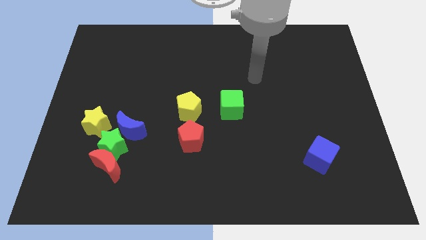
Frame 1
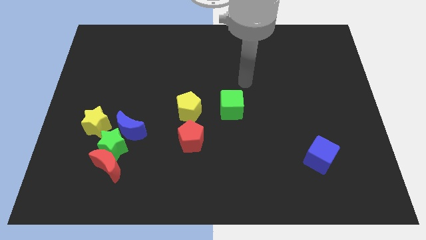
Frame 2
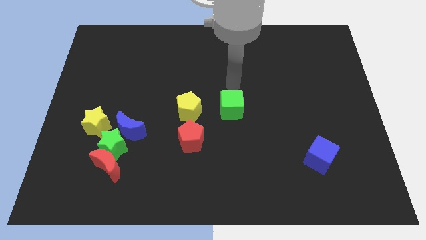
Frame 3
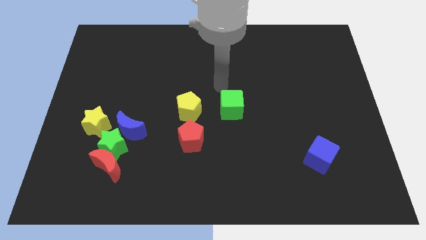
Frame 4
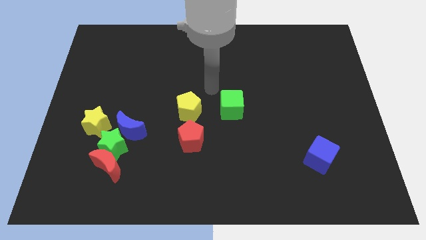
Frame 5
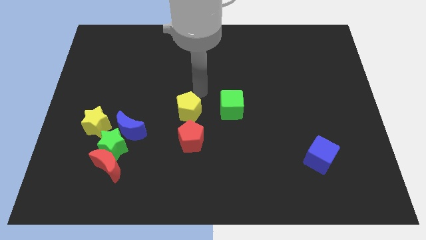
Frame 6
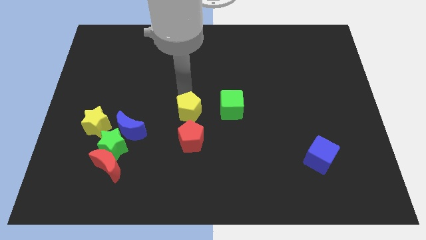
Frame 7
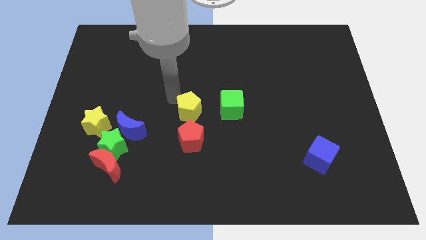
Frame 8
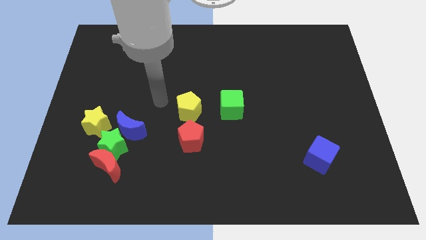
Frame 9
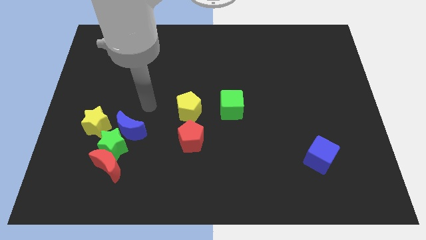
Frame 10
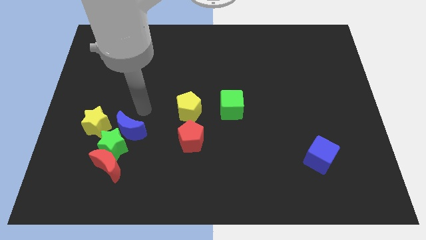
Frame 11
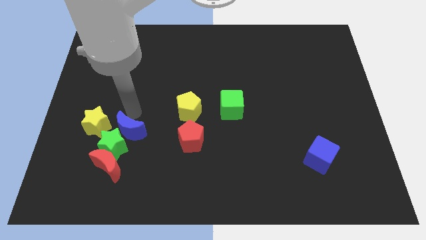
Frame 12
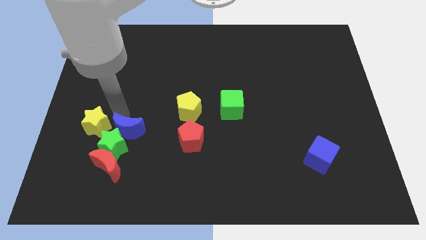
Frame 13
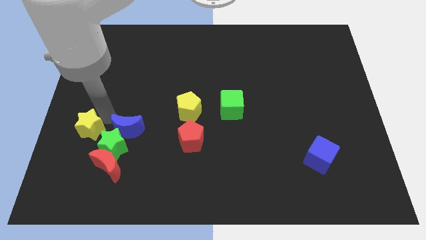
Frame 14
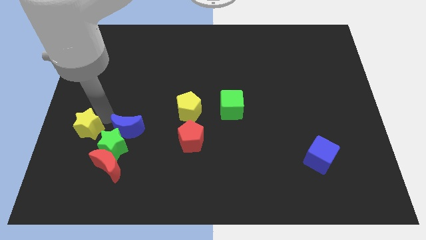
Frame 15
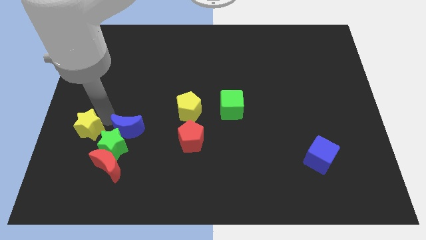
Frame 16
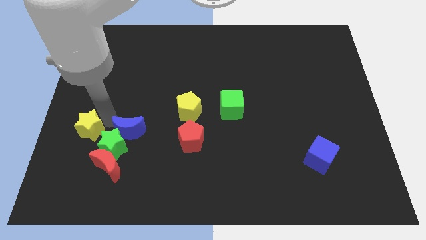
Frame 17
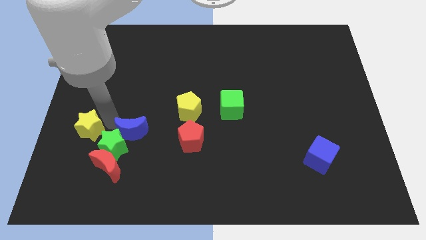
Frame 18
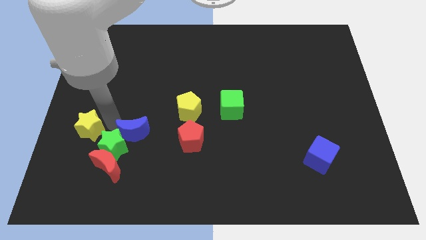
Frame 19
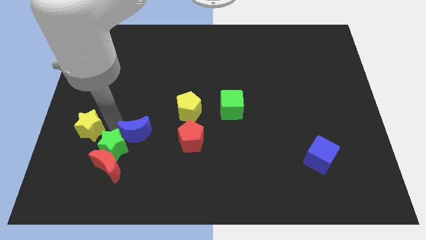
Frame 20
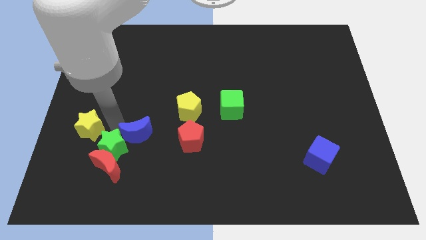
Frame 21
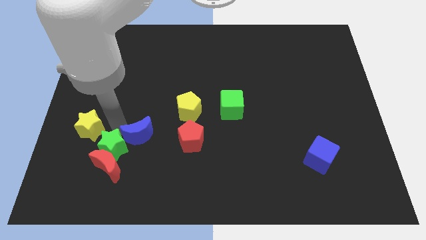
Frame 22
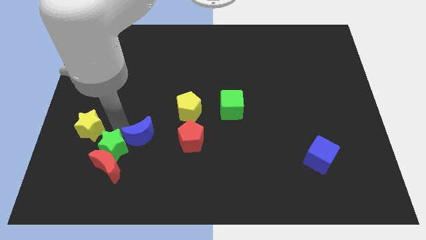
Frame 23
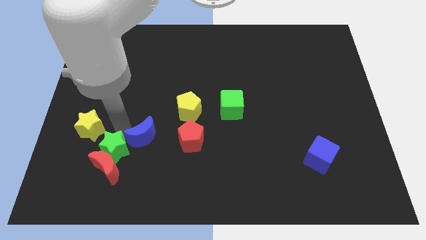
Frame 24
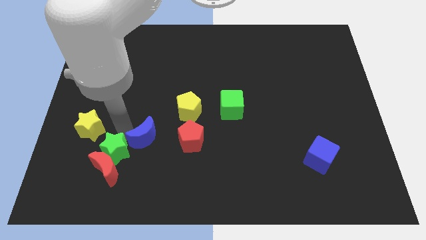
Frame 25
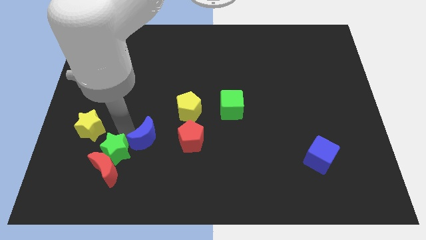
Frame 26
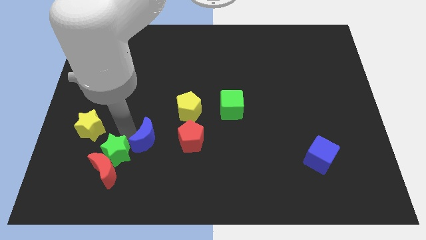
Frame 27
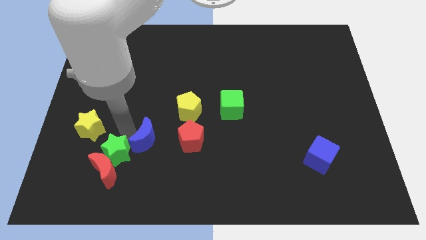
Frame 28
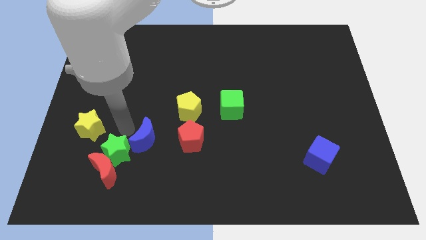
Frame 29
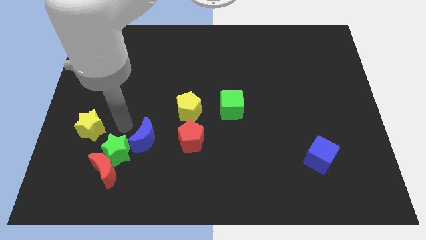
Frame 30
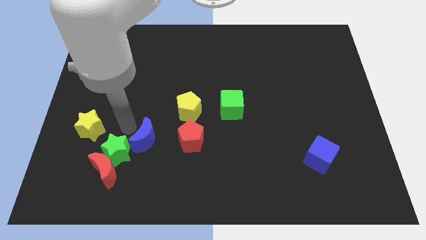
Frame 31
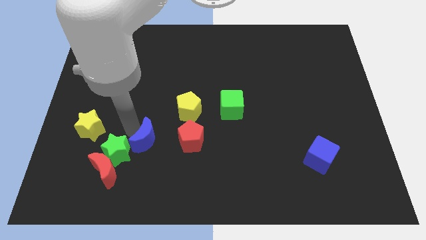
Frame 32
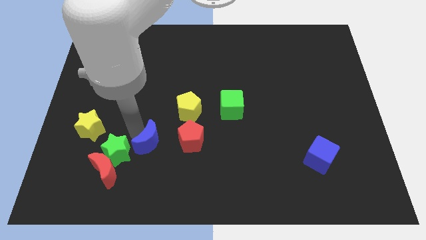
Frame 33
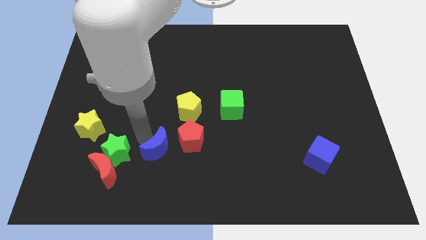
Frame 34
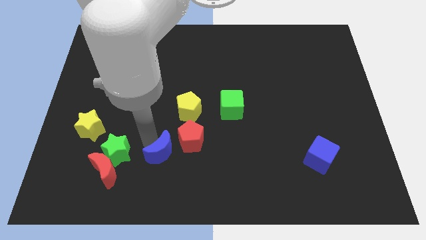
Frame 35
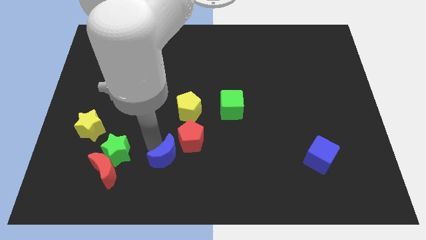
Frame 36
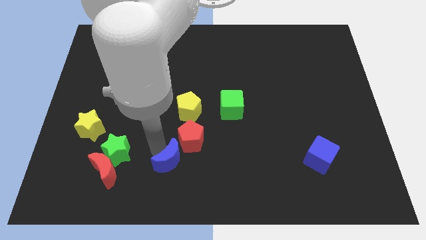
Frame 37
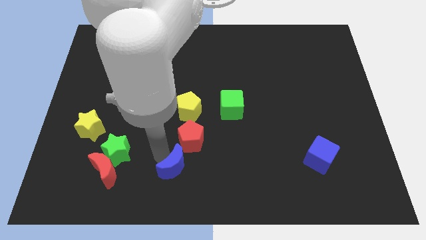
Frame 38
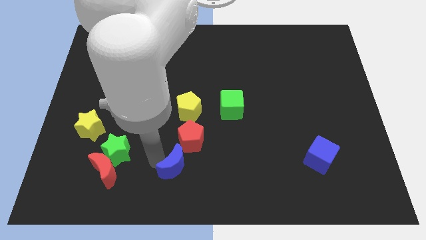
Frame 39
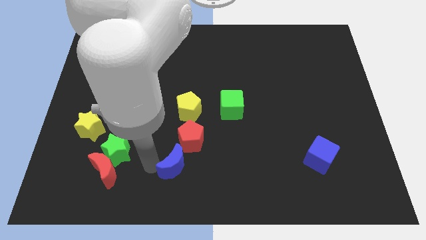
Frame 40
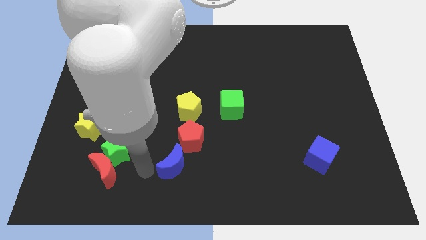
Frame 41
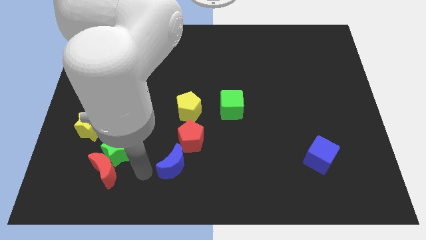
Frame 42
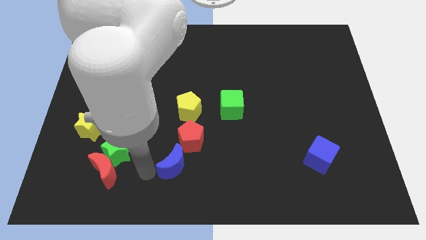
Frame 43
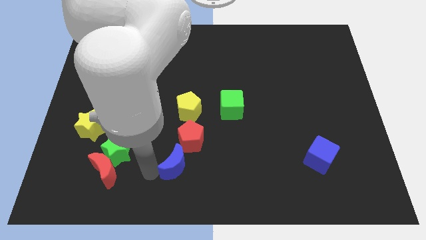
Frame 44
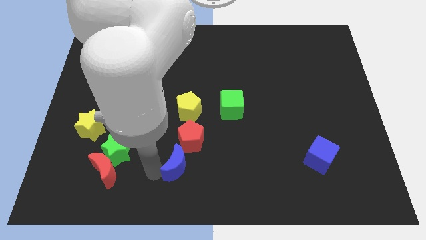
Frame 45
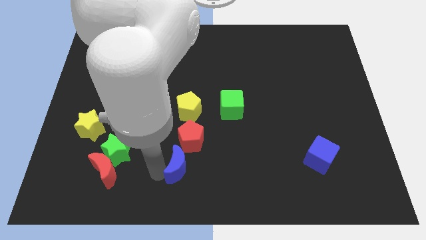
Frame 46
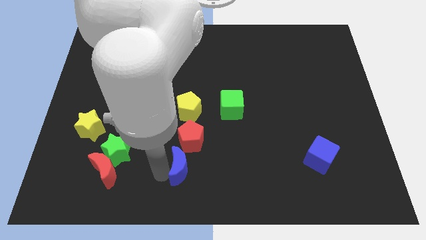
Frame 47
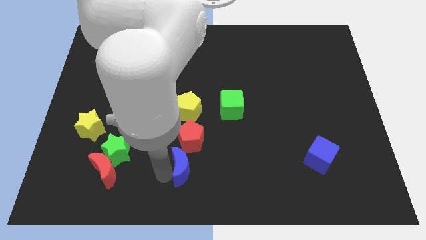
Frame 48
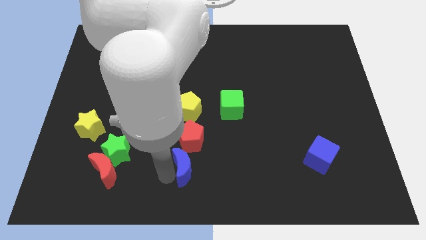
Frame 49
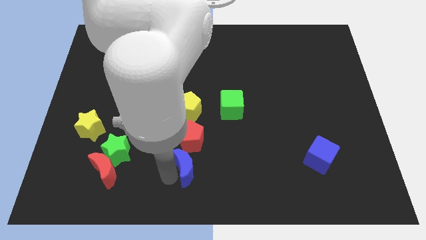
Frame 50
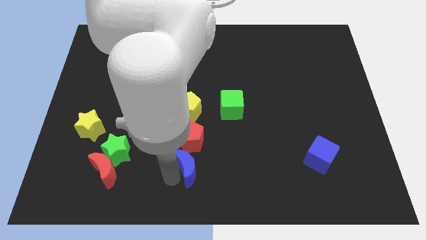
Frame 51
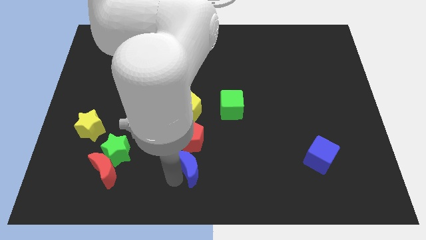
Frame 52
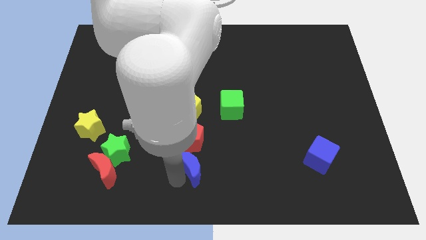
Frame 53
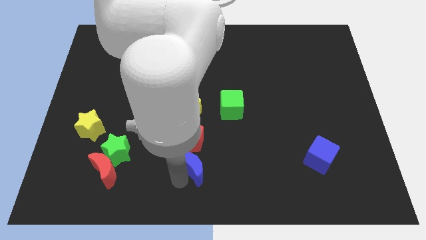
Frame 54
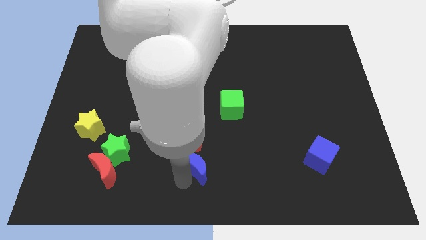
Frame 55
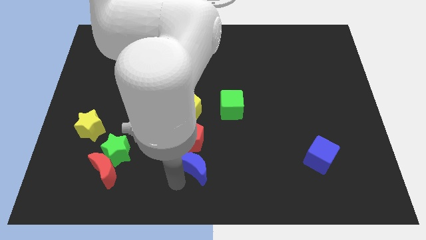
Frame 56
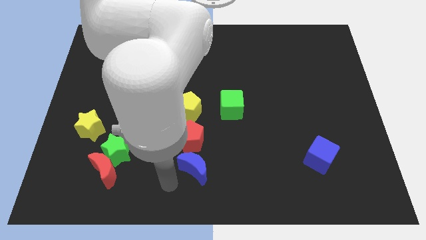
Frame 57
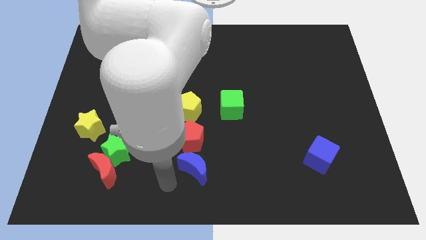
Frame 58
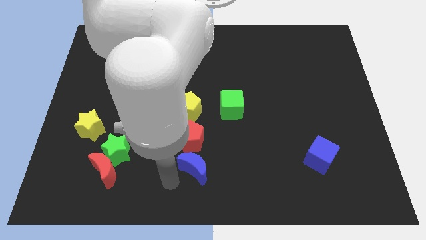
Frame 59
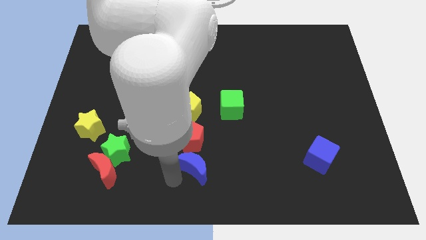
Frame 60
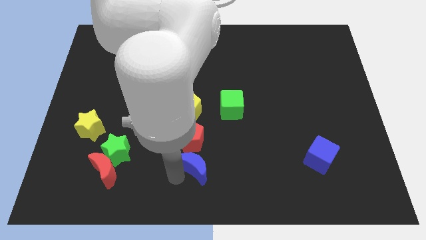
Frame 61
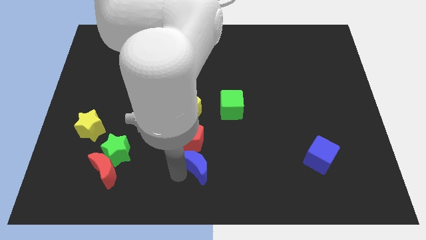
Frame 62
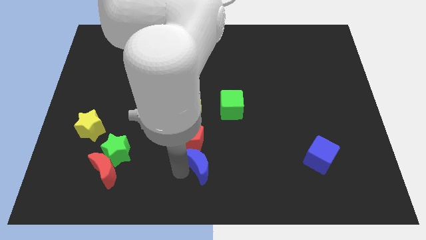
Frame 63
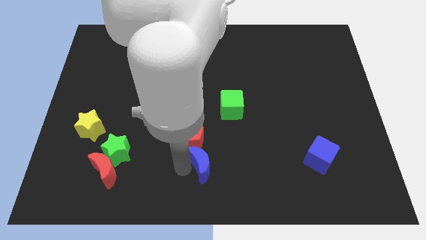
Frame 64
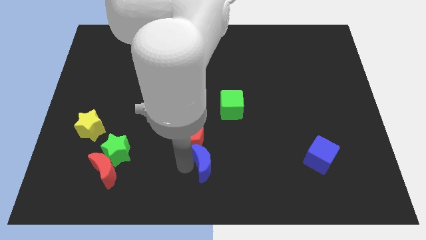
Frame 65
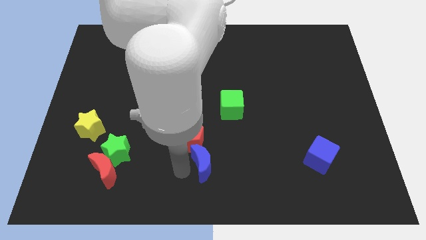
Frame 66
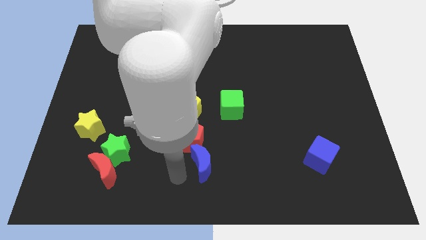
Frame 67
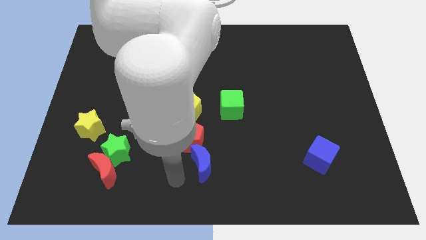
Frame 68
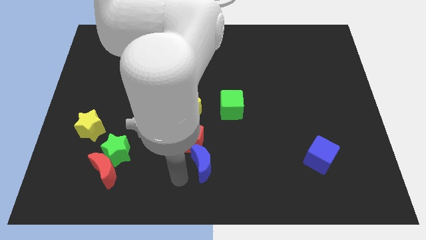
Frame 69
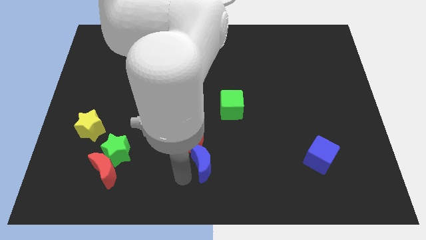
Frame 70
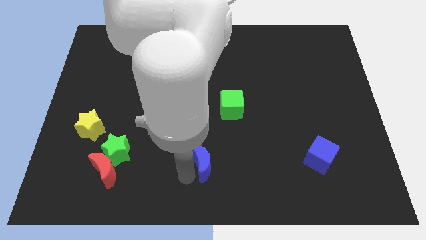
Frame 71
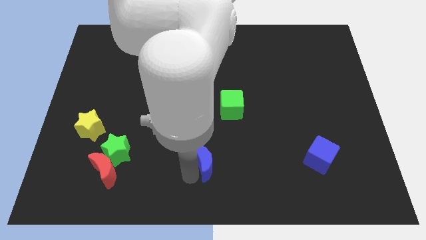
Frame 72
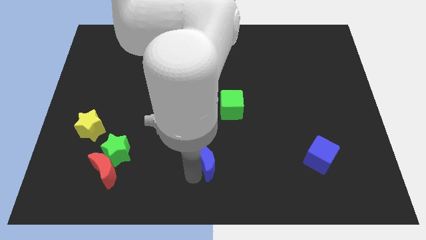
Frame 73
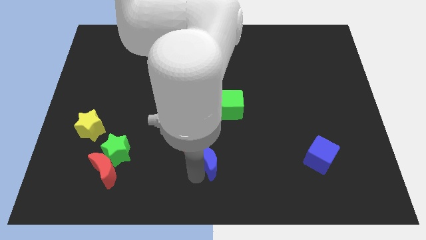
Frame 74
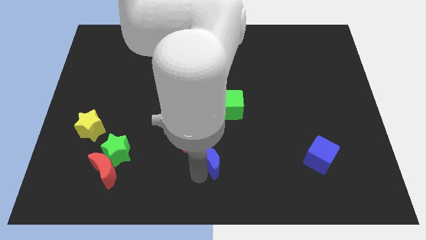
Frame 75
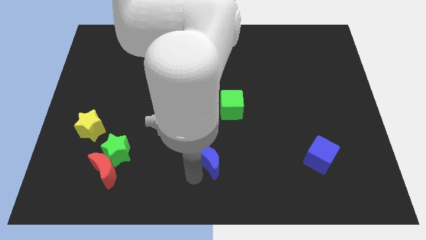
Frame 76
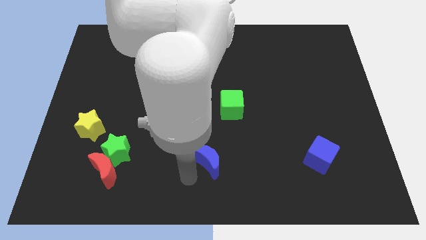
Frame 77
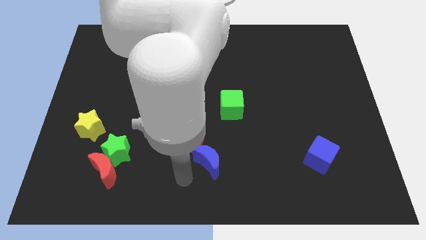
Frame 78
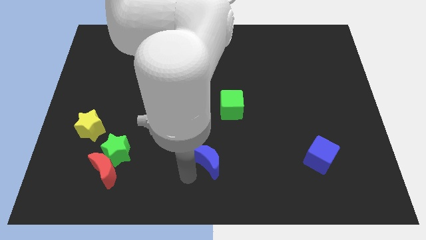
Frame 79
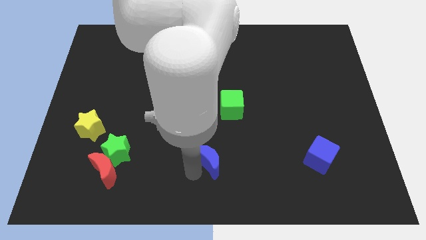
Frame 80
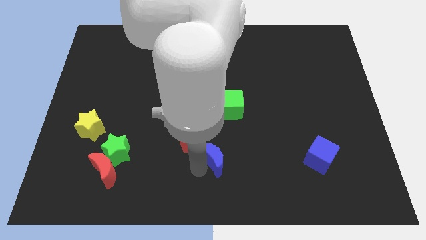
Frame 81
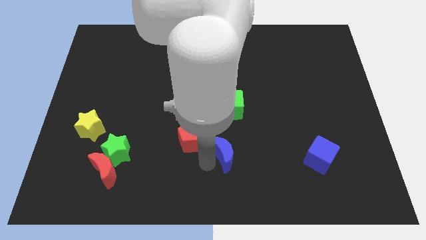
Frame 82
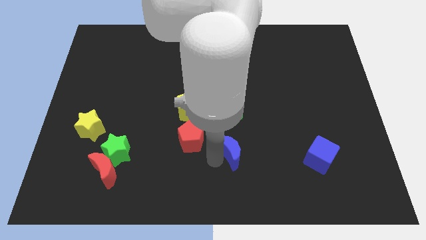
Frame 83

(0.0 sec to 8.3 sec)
move the blue moon to the right
